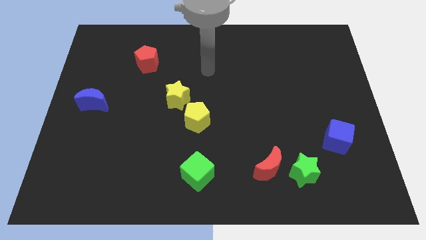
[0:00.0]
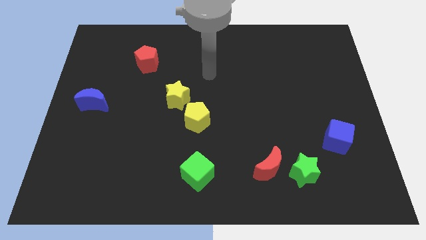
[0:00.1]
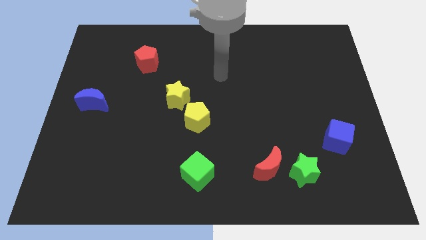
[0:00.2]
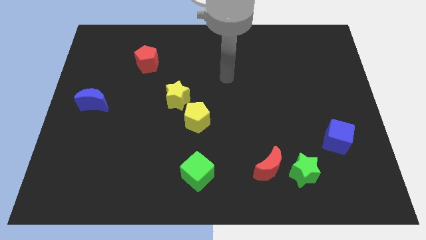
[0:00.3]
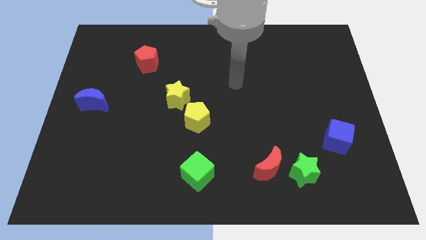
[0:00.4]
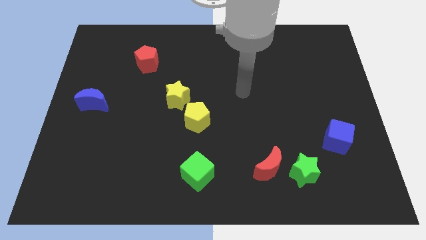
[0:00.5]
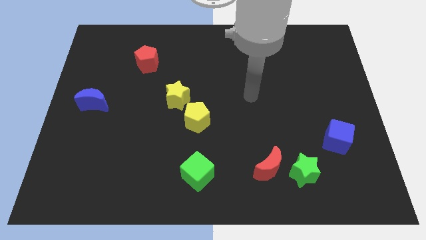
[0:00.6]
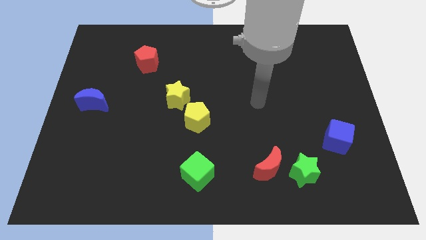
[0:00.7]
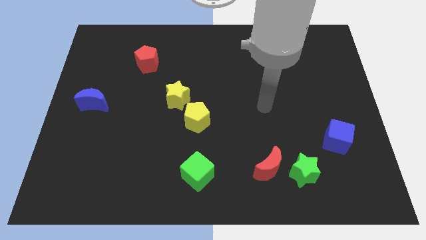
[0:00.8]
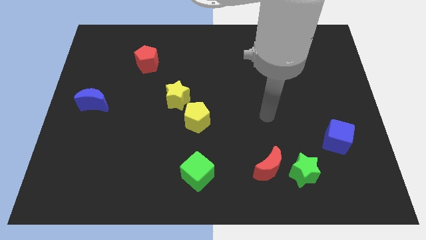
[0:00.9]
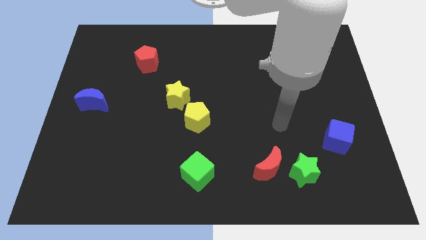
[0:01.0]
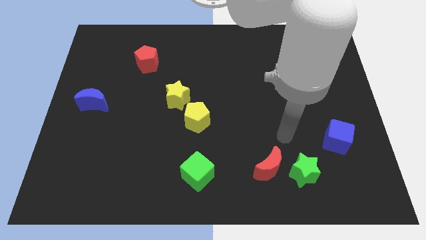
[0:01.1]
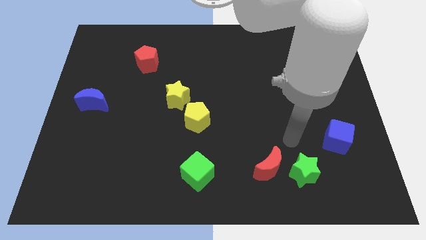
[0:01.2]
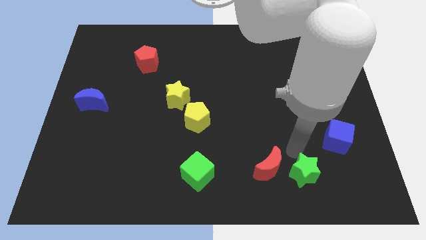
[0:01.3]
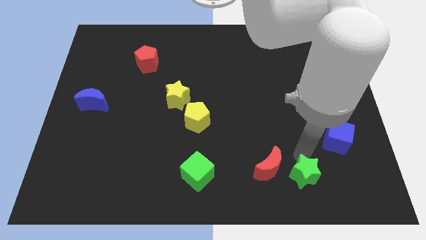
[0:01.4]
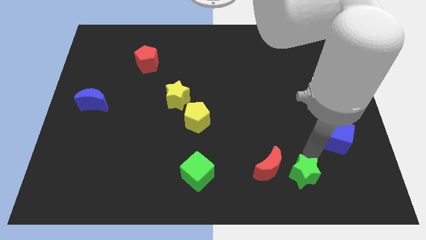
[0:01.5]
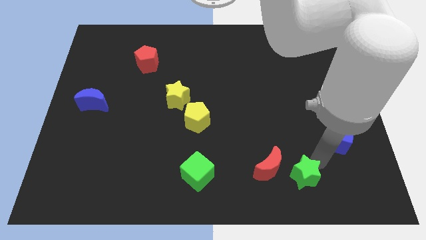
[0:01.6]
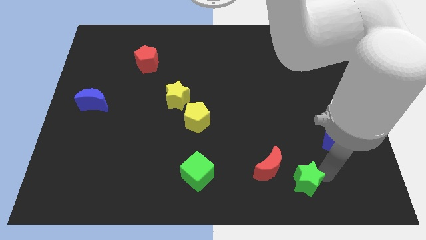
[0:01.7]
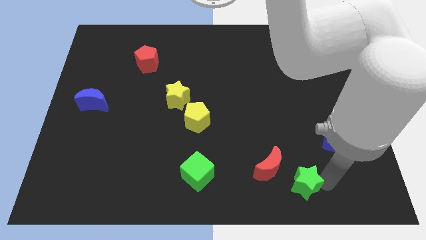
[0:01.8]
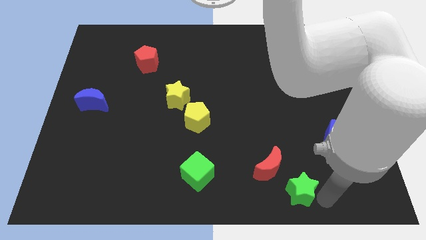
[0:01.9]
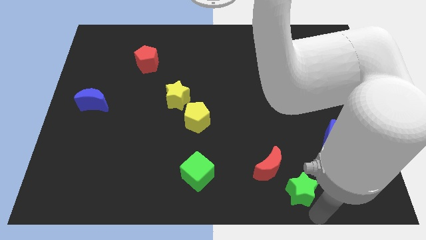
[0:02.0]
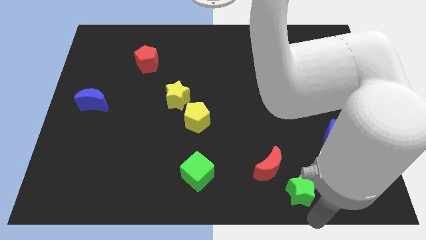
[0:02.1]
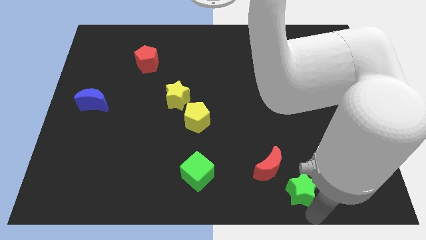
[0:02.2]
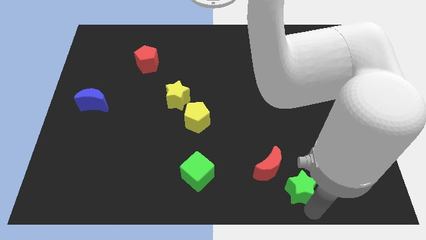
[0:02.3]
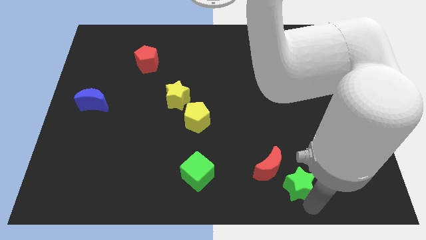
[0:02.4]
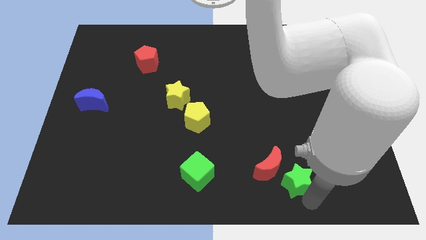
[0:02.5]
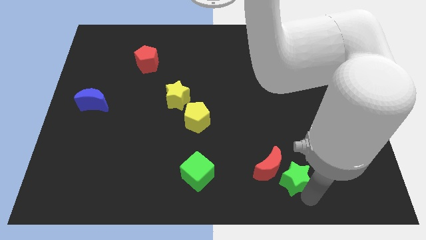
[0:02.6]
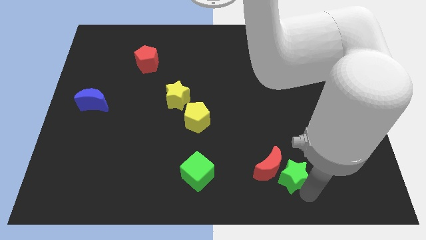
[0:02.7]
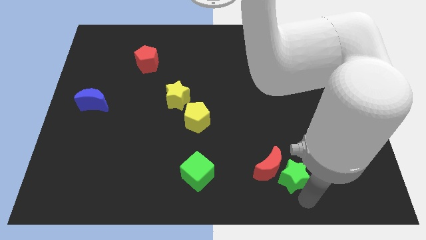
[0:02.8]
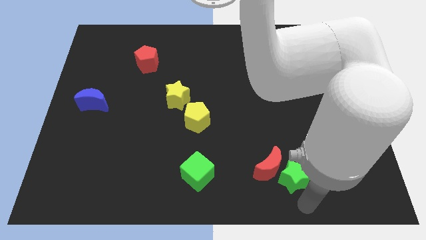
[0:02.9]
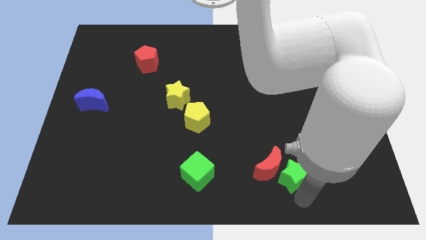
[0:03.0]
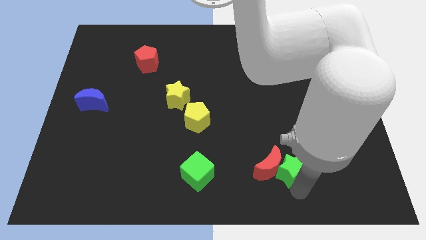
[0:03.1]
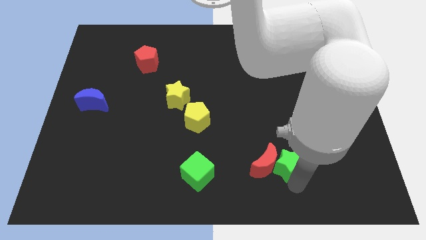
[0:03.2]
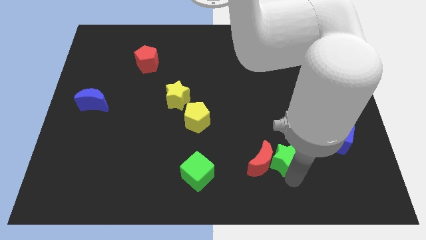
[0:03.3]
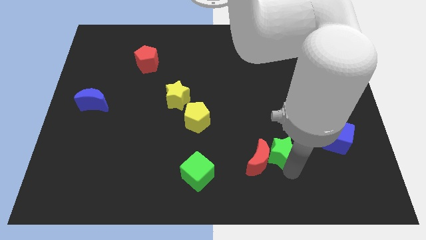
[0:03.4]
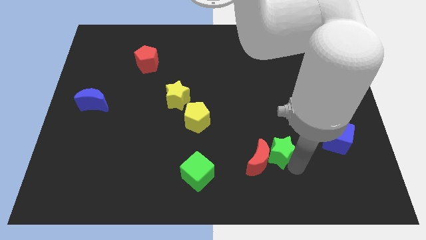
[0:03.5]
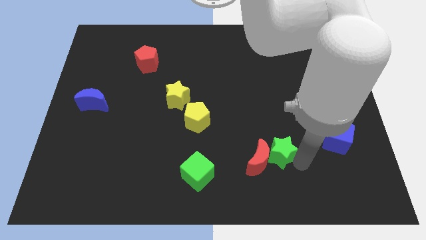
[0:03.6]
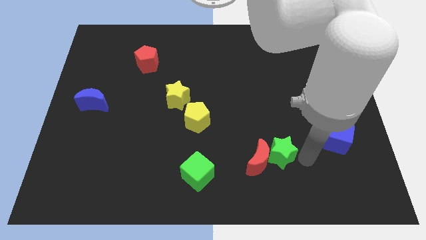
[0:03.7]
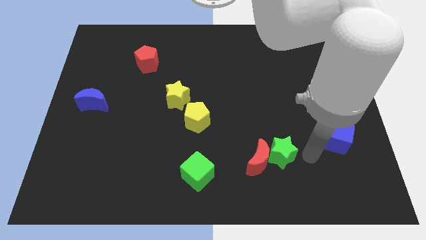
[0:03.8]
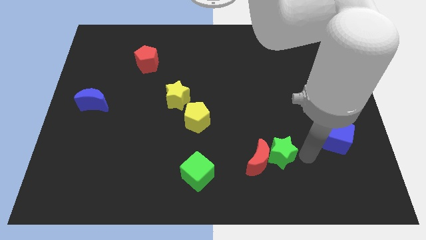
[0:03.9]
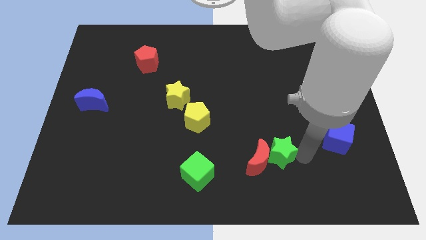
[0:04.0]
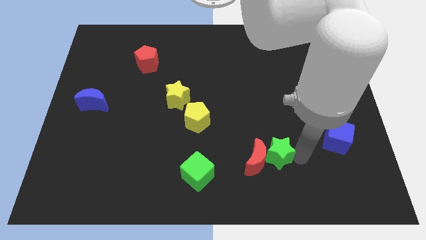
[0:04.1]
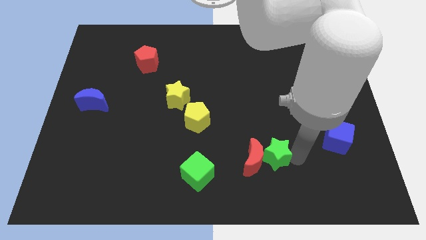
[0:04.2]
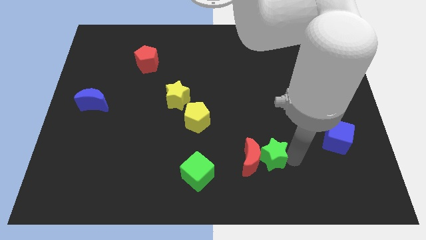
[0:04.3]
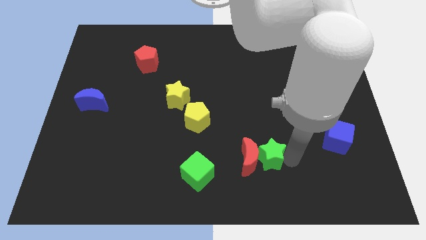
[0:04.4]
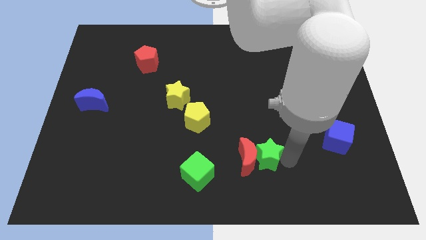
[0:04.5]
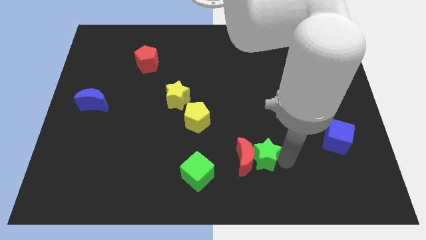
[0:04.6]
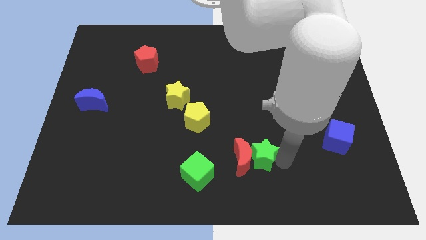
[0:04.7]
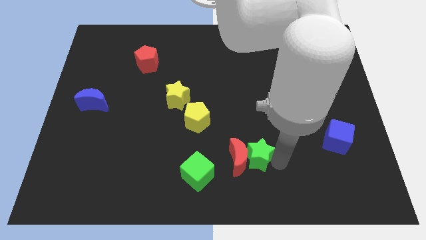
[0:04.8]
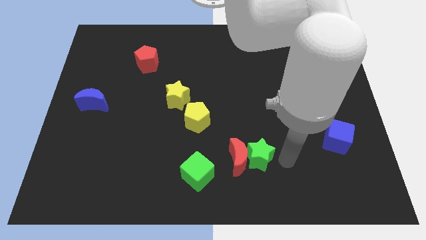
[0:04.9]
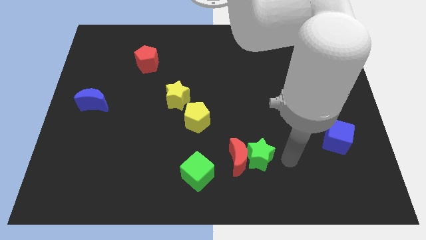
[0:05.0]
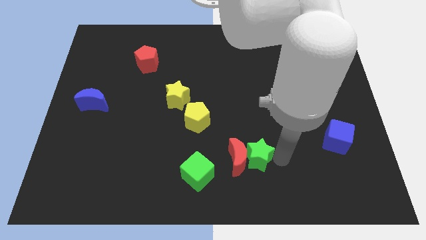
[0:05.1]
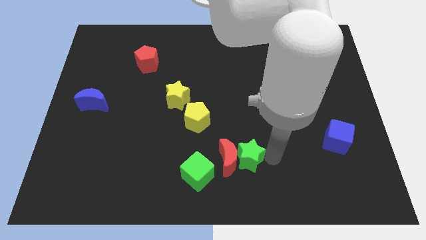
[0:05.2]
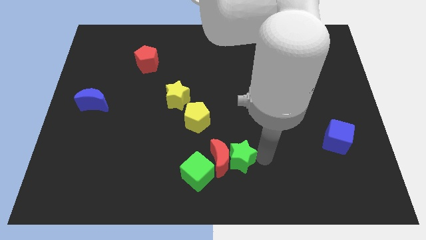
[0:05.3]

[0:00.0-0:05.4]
slide the green star diagonally up and to the right of the green cube

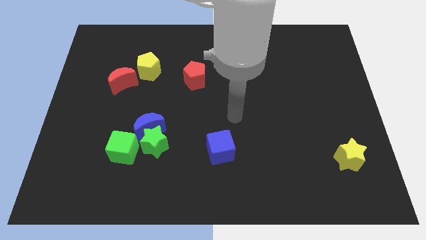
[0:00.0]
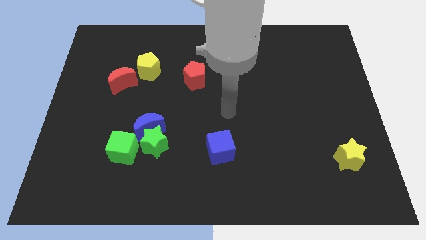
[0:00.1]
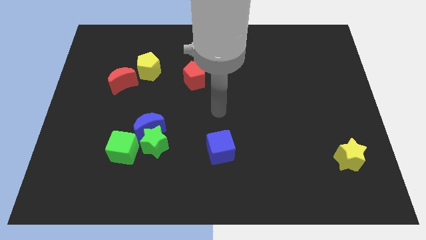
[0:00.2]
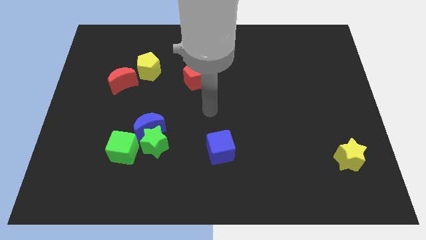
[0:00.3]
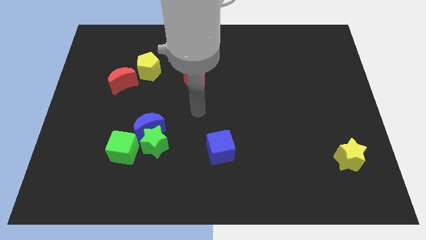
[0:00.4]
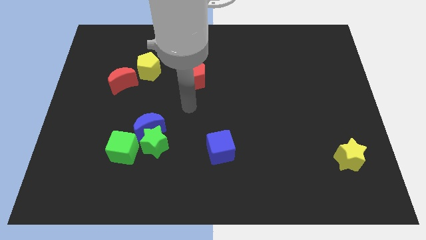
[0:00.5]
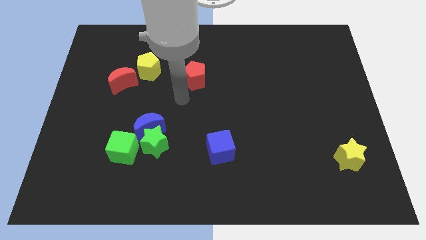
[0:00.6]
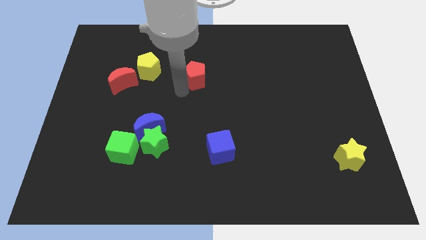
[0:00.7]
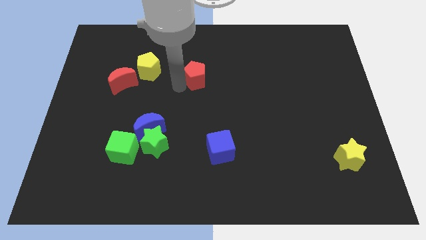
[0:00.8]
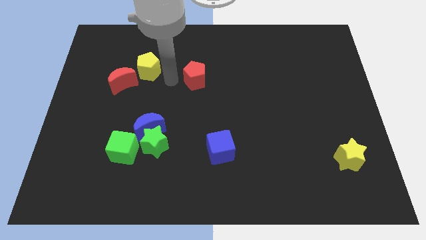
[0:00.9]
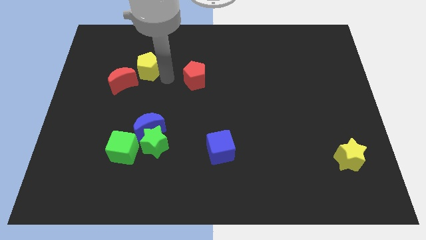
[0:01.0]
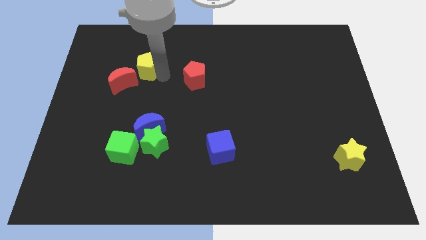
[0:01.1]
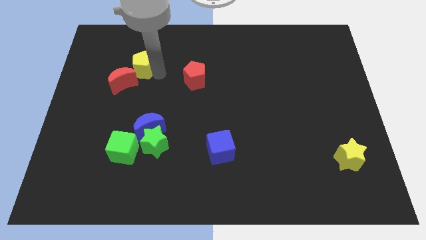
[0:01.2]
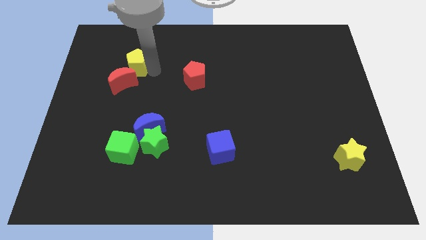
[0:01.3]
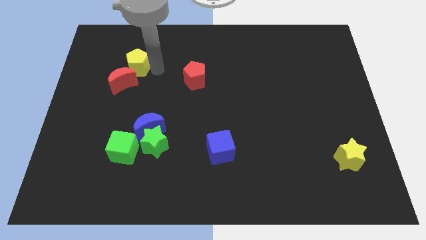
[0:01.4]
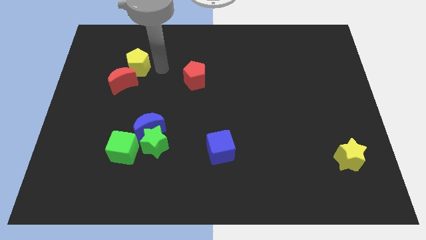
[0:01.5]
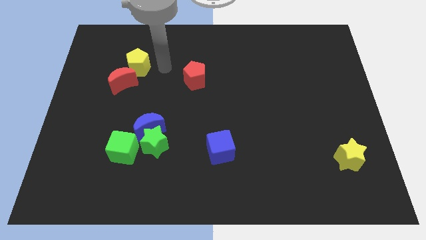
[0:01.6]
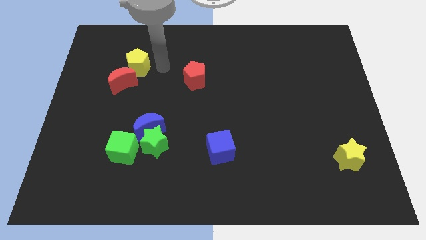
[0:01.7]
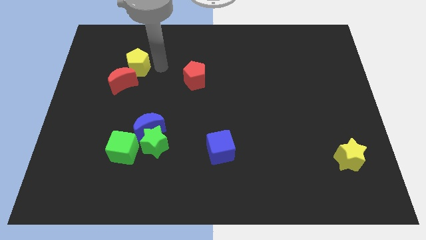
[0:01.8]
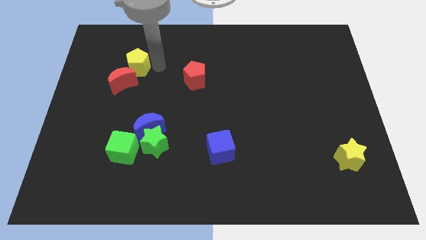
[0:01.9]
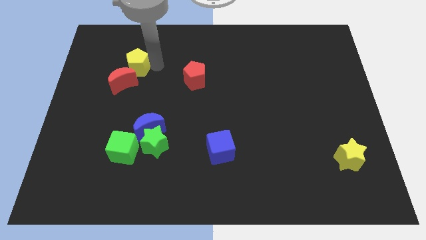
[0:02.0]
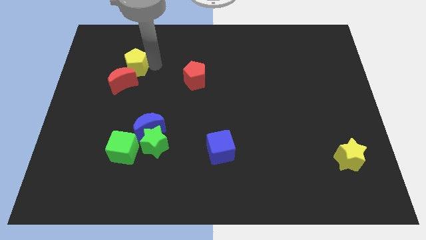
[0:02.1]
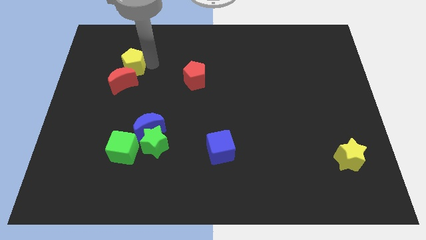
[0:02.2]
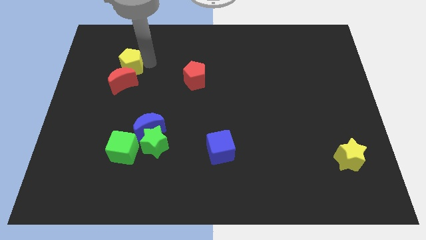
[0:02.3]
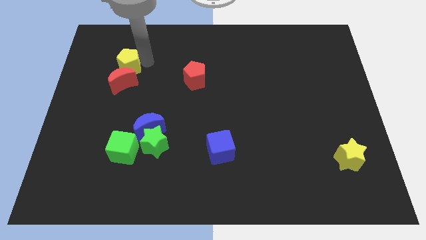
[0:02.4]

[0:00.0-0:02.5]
move the yellow pentagon to the top left of the red moon
